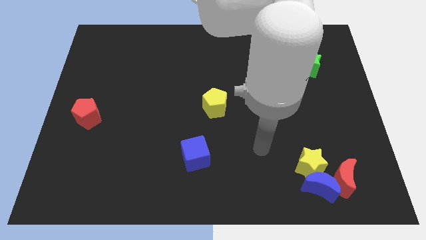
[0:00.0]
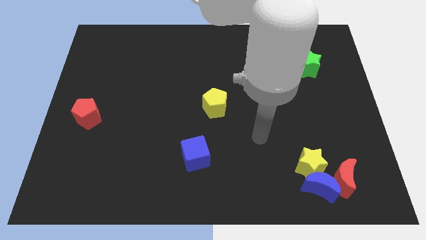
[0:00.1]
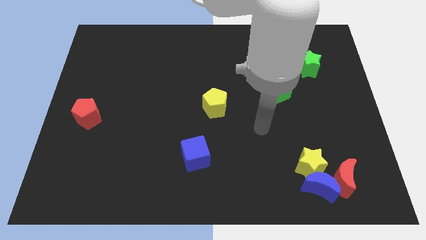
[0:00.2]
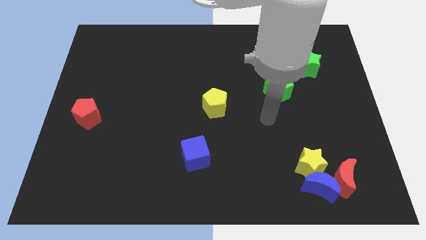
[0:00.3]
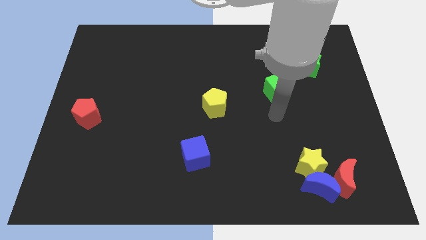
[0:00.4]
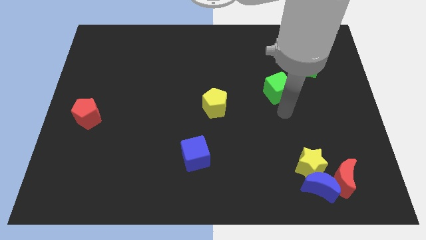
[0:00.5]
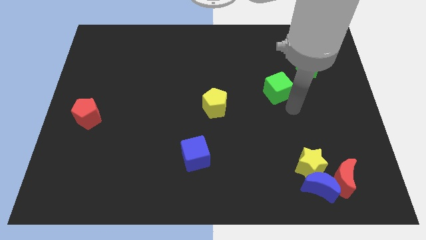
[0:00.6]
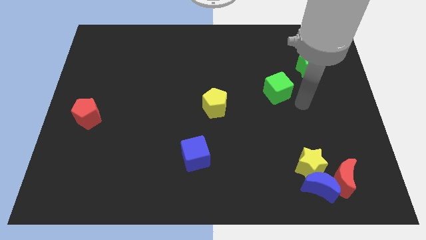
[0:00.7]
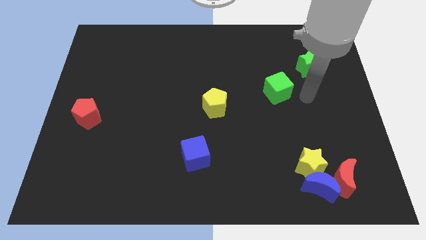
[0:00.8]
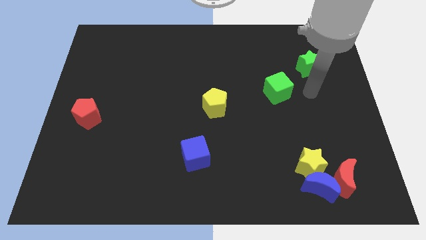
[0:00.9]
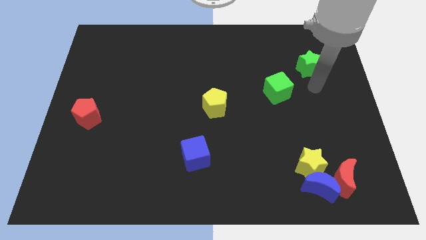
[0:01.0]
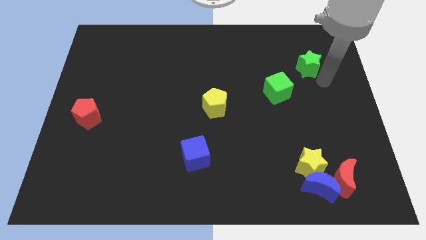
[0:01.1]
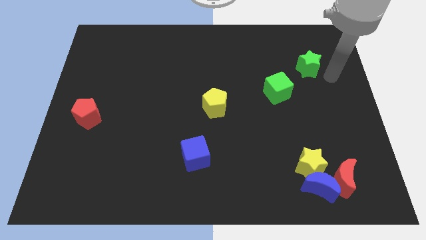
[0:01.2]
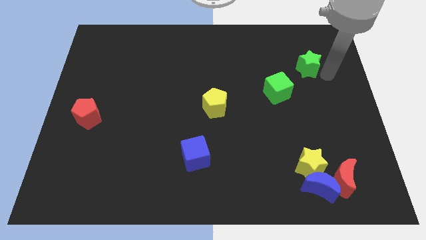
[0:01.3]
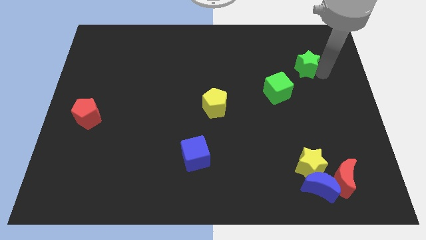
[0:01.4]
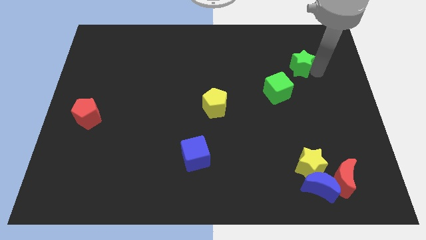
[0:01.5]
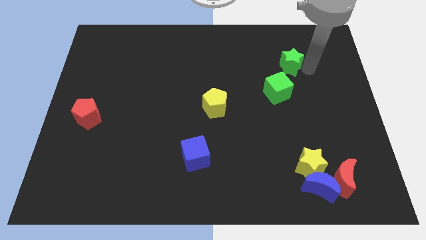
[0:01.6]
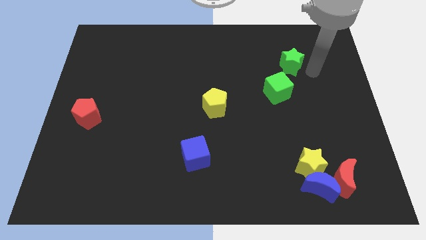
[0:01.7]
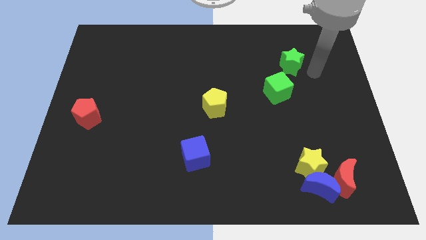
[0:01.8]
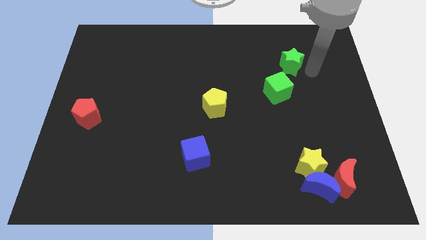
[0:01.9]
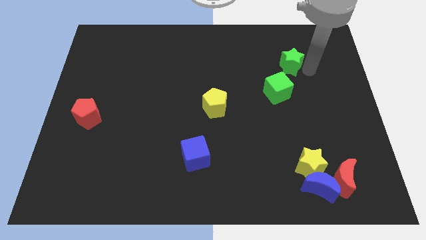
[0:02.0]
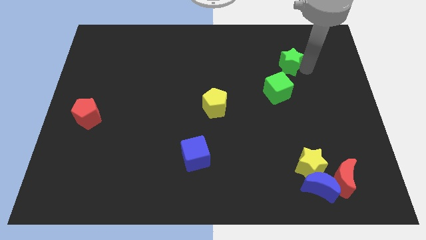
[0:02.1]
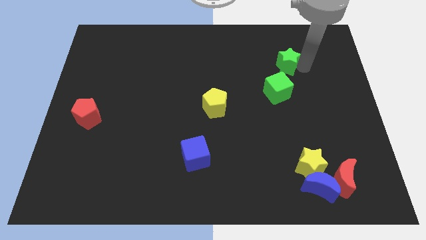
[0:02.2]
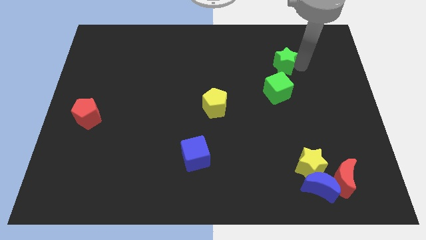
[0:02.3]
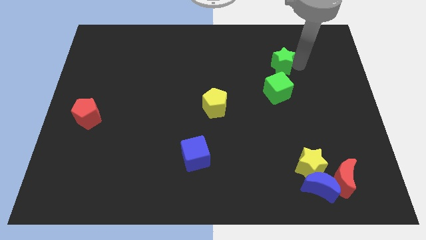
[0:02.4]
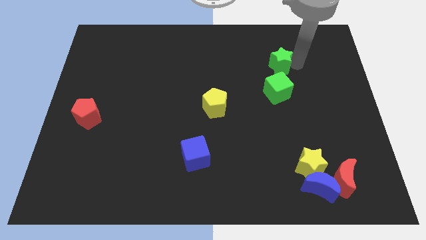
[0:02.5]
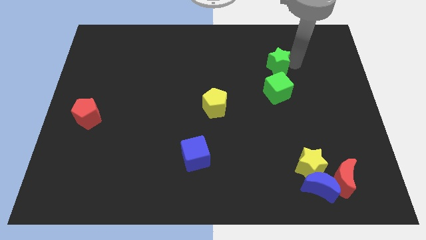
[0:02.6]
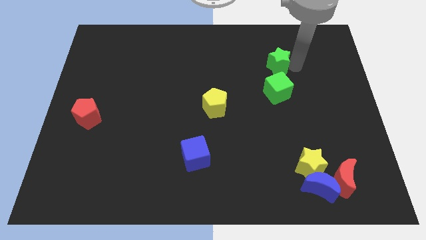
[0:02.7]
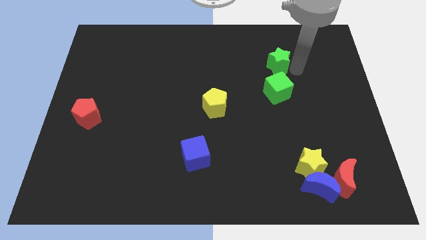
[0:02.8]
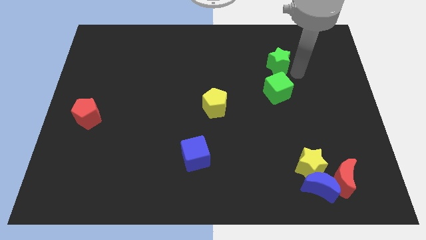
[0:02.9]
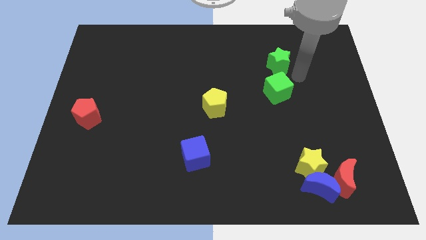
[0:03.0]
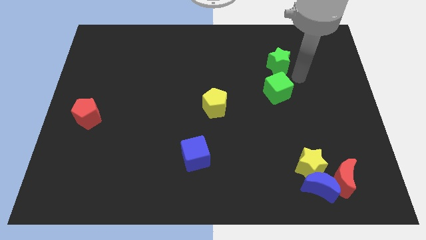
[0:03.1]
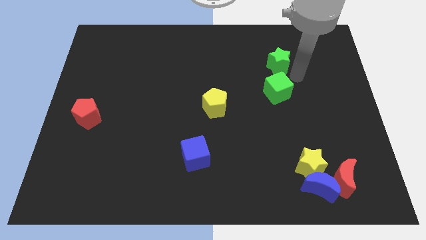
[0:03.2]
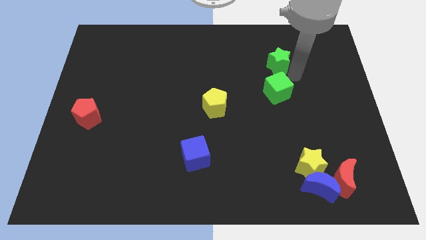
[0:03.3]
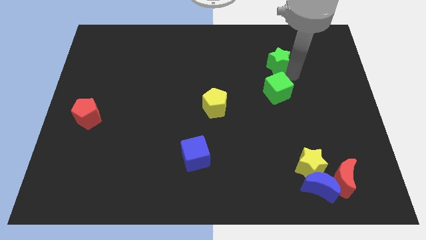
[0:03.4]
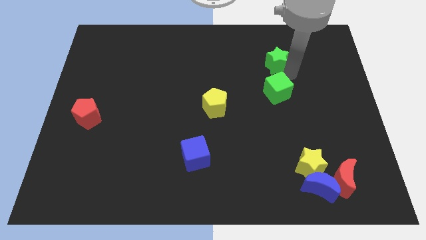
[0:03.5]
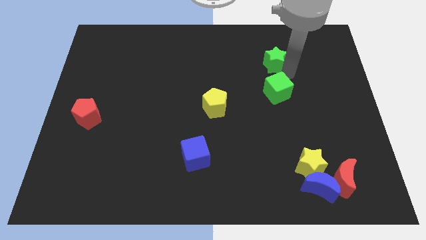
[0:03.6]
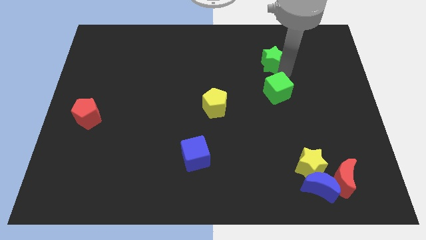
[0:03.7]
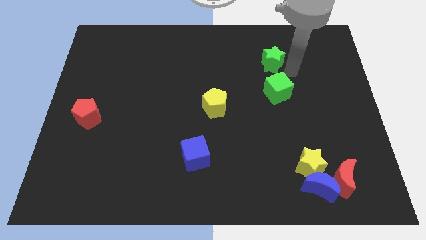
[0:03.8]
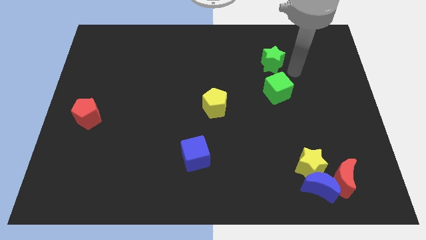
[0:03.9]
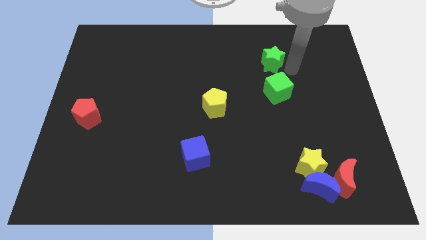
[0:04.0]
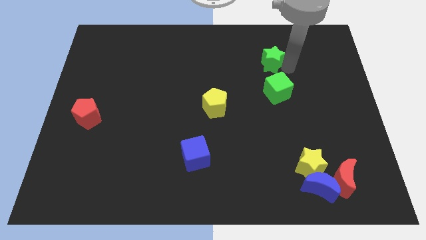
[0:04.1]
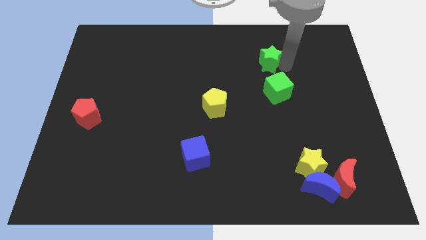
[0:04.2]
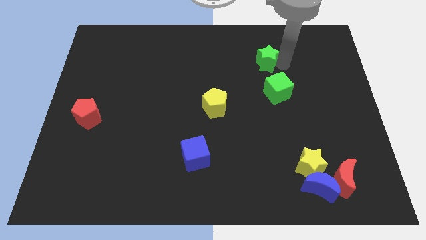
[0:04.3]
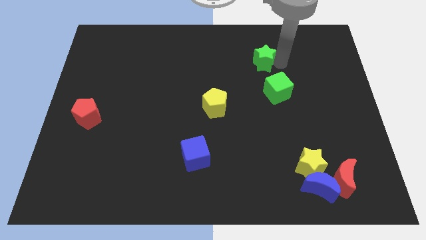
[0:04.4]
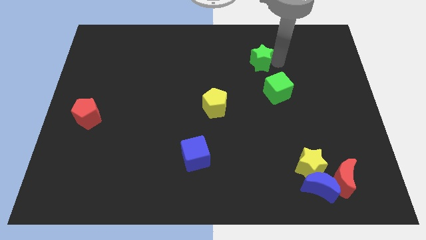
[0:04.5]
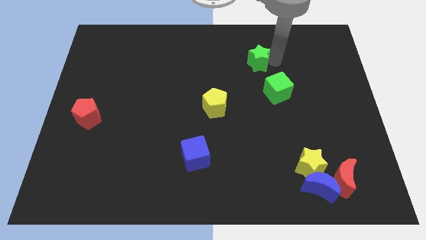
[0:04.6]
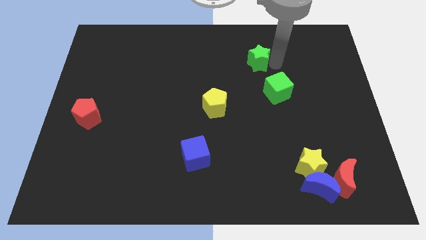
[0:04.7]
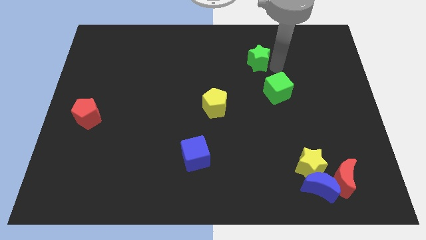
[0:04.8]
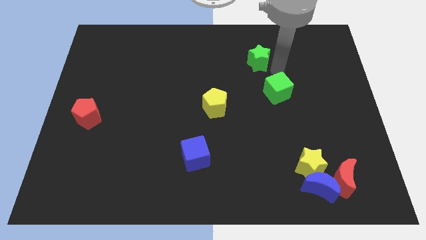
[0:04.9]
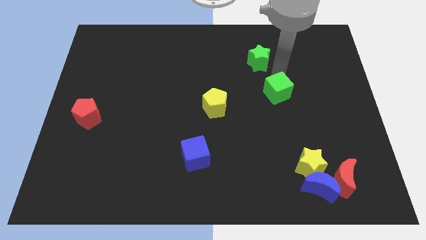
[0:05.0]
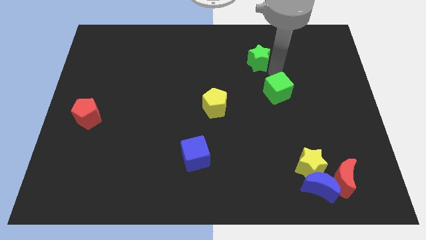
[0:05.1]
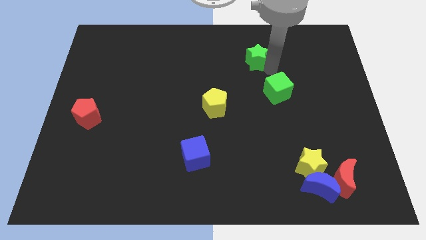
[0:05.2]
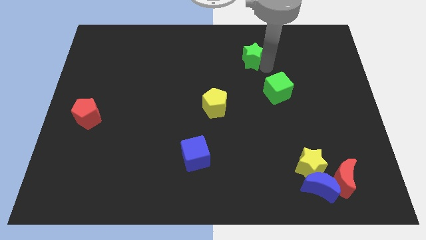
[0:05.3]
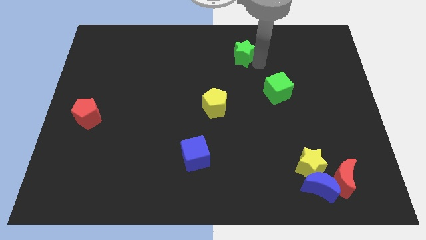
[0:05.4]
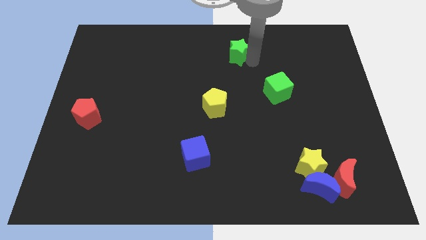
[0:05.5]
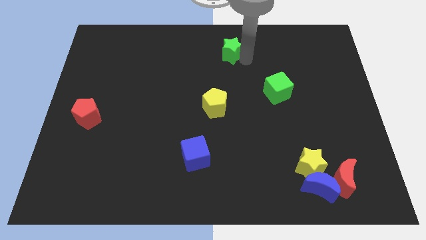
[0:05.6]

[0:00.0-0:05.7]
push the green star to the towards your base

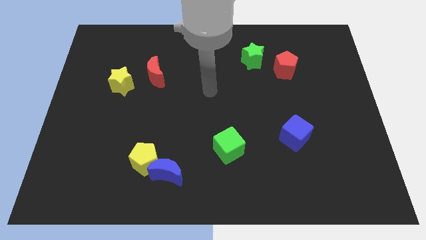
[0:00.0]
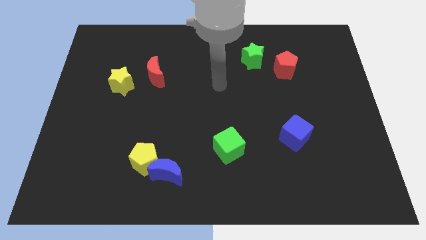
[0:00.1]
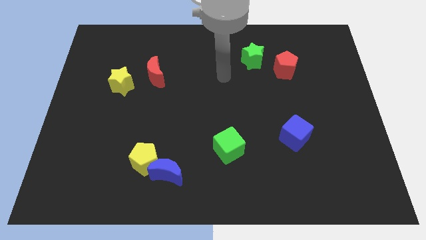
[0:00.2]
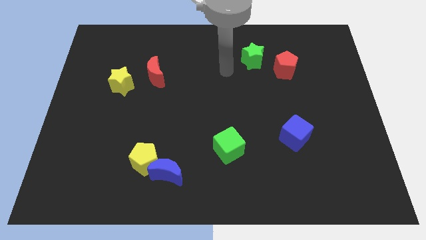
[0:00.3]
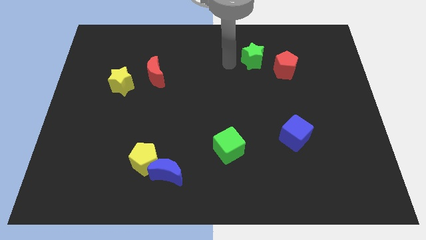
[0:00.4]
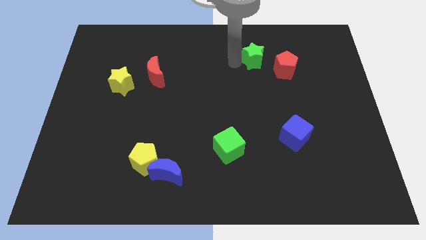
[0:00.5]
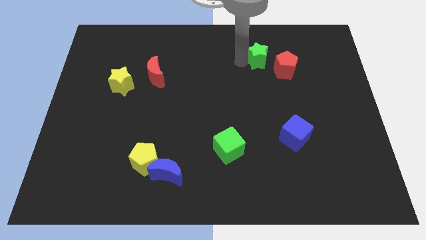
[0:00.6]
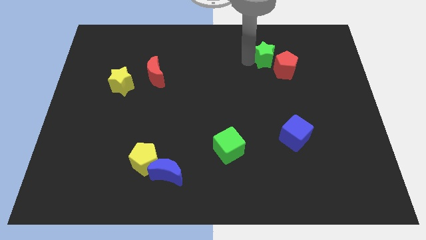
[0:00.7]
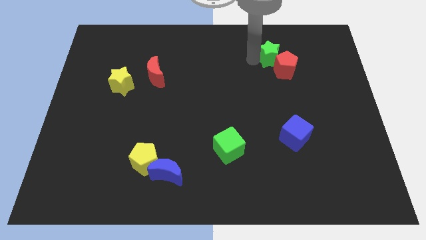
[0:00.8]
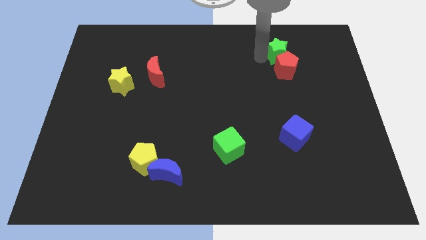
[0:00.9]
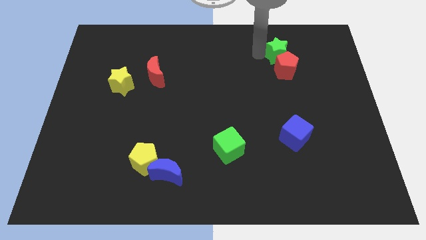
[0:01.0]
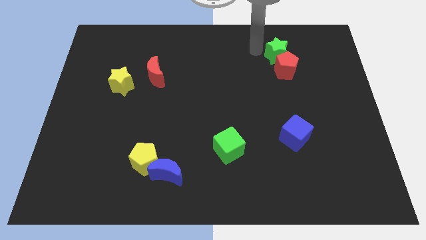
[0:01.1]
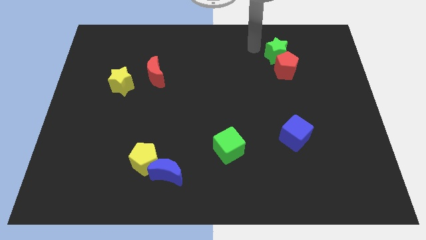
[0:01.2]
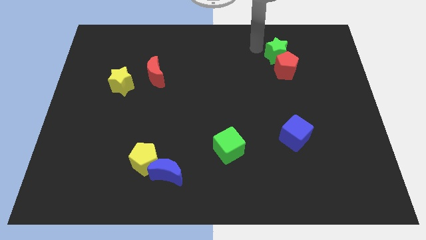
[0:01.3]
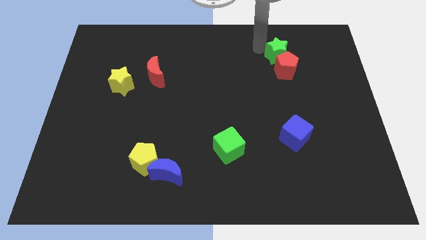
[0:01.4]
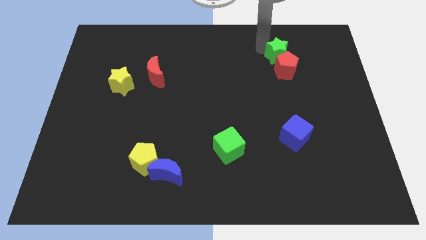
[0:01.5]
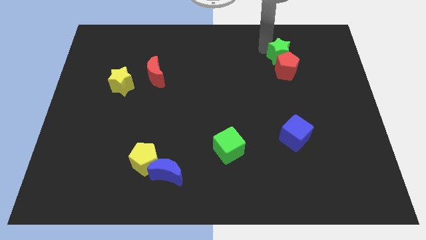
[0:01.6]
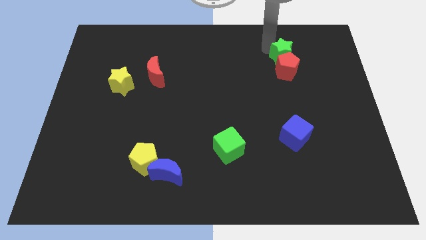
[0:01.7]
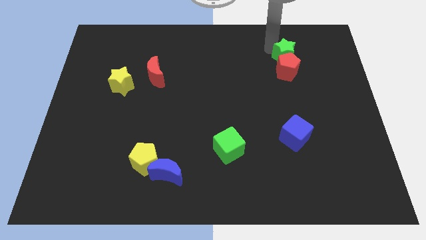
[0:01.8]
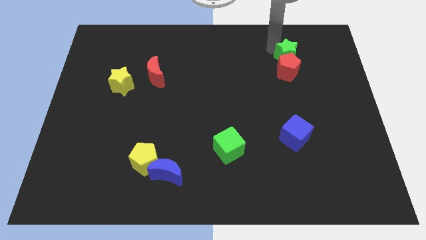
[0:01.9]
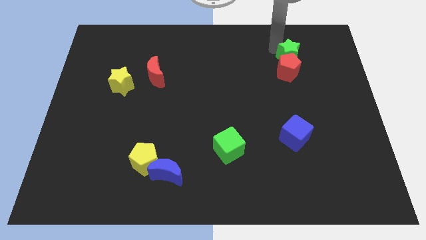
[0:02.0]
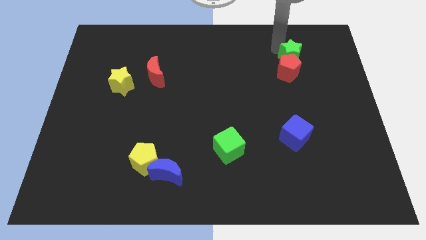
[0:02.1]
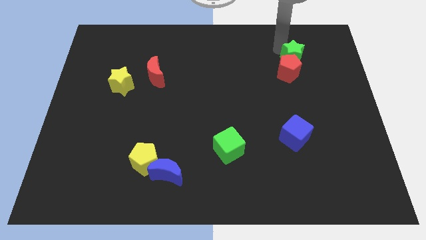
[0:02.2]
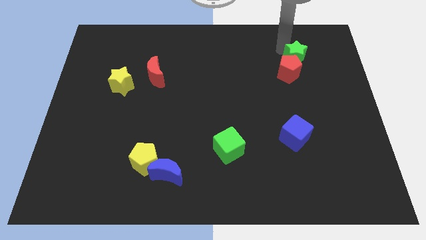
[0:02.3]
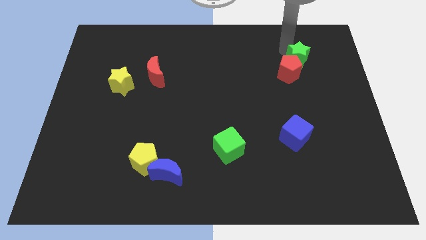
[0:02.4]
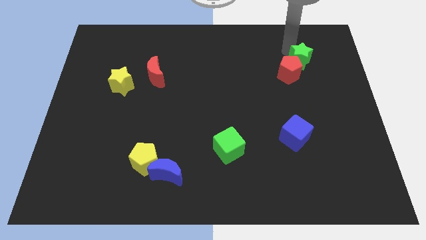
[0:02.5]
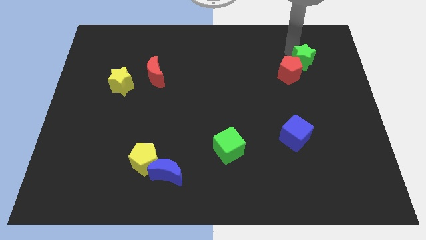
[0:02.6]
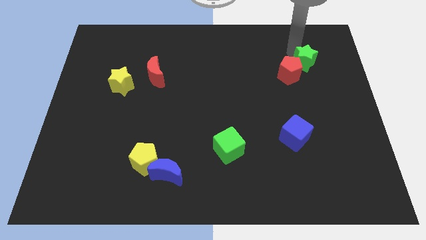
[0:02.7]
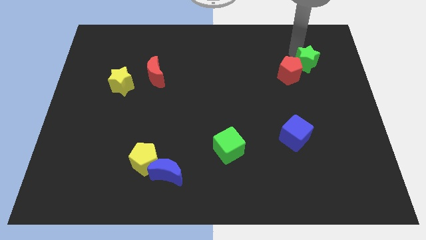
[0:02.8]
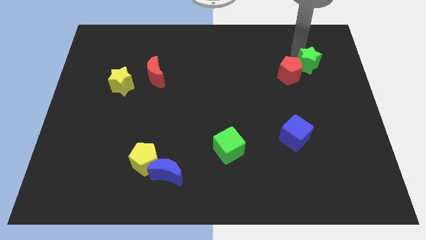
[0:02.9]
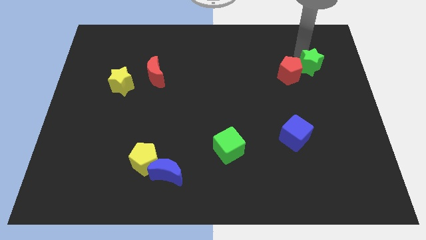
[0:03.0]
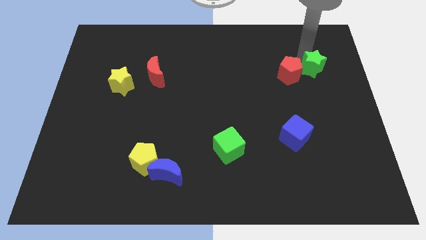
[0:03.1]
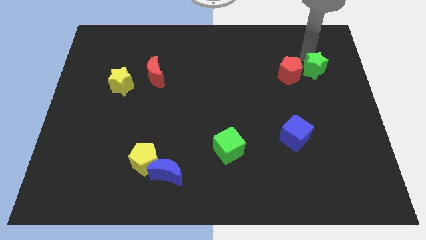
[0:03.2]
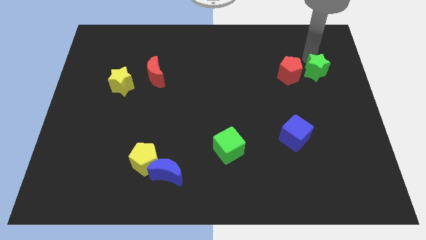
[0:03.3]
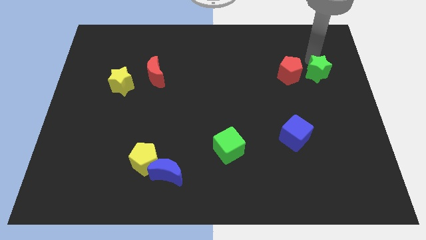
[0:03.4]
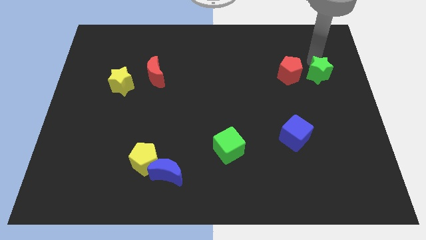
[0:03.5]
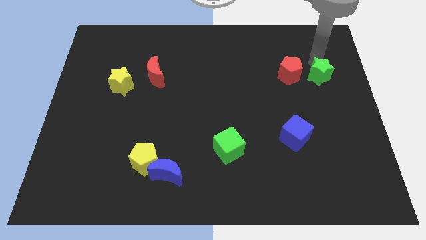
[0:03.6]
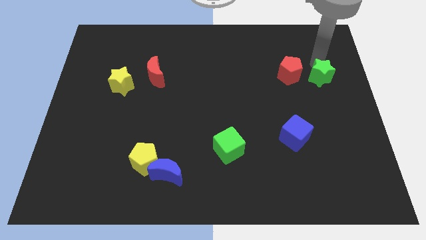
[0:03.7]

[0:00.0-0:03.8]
push the green star to the right side
